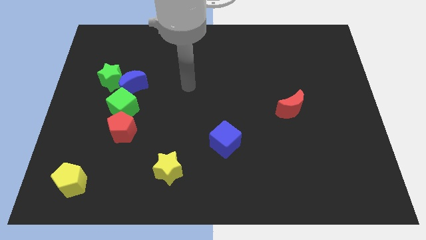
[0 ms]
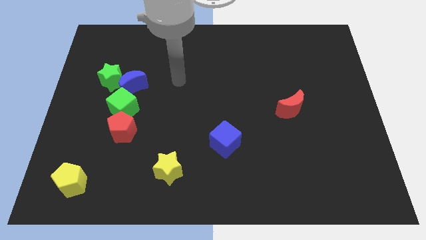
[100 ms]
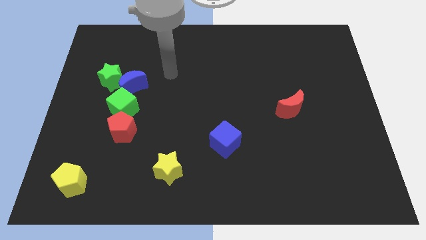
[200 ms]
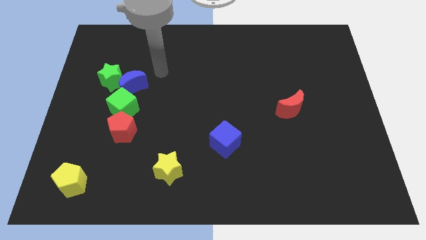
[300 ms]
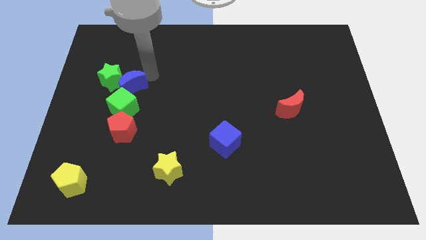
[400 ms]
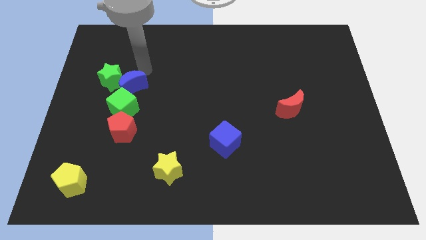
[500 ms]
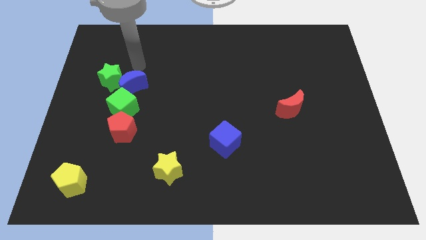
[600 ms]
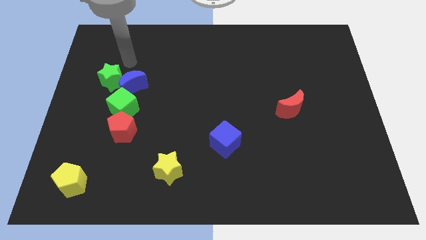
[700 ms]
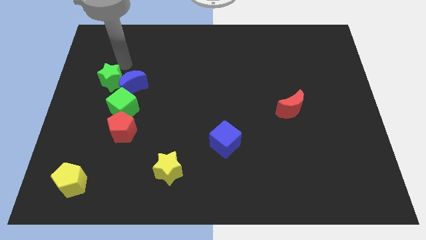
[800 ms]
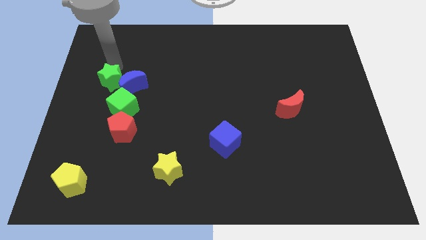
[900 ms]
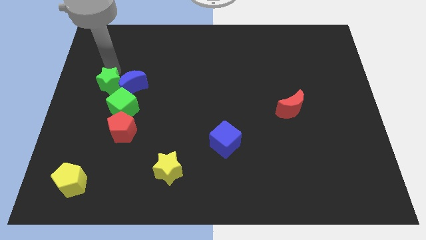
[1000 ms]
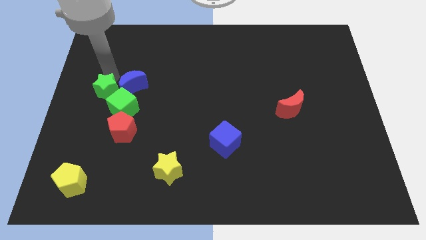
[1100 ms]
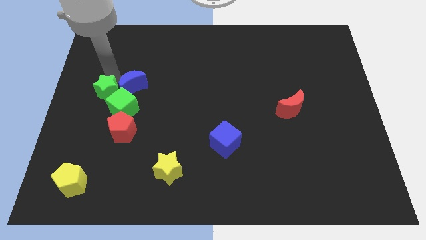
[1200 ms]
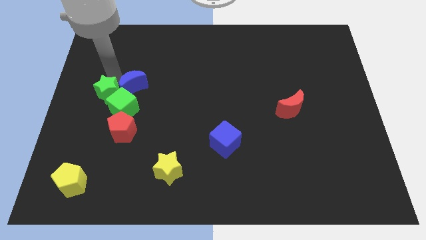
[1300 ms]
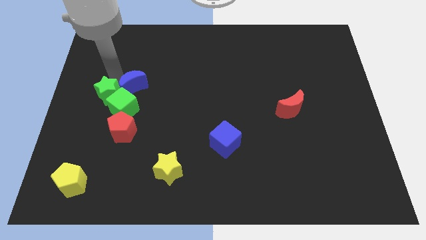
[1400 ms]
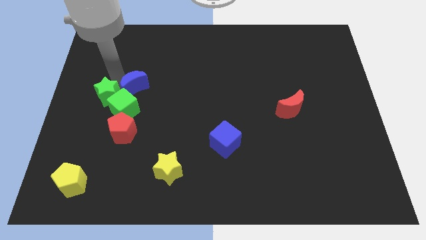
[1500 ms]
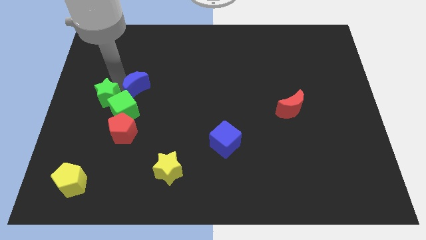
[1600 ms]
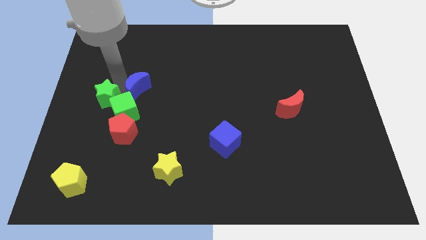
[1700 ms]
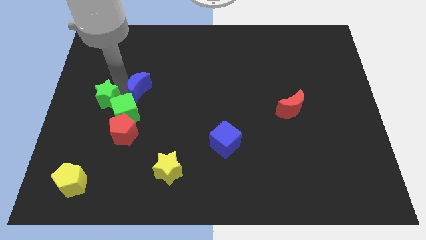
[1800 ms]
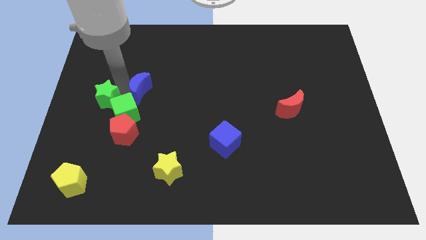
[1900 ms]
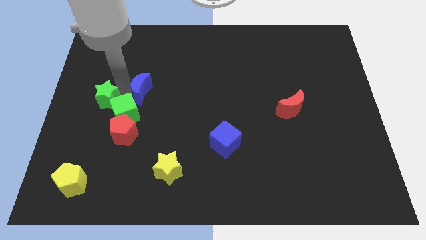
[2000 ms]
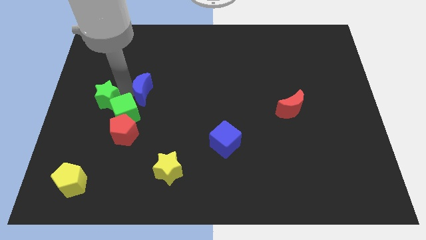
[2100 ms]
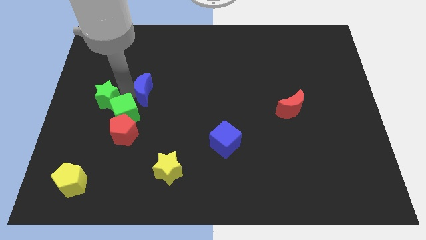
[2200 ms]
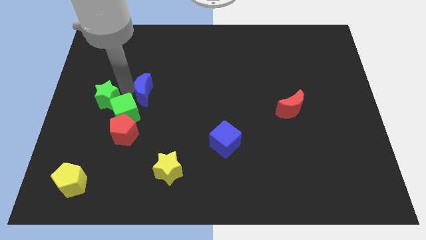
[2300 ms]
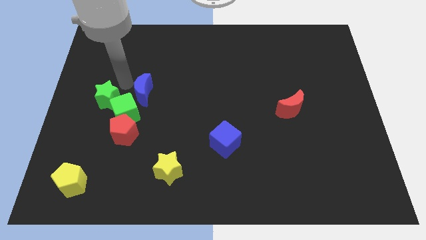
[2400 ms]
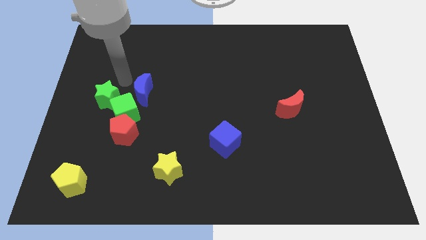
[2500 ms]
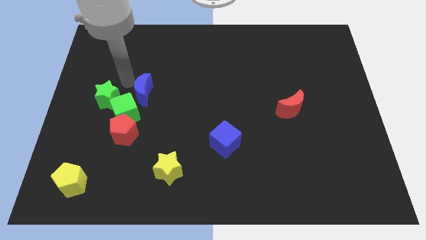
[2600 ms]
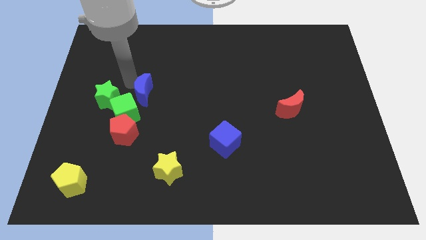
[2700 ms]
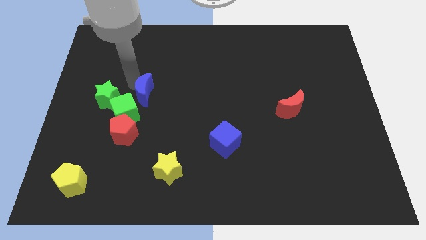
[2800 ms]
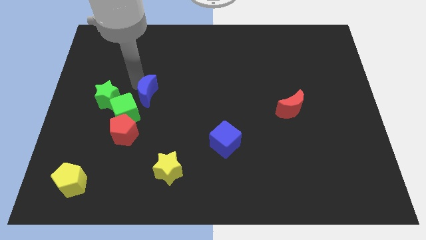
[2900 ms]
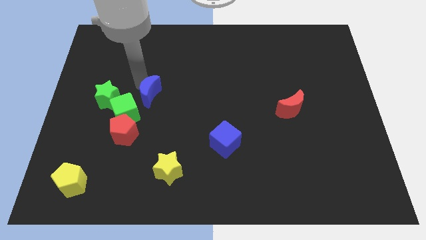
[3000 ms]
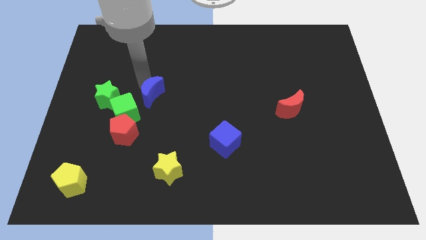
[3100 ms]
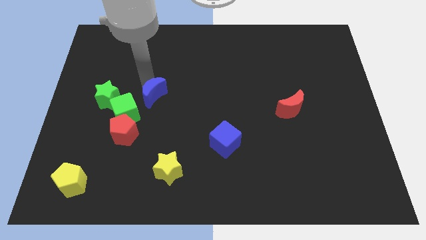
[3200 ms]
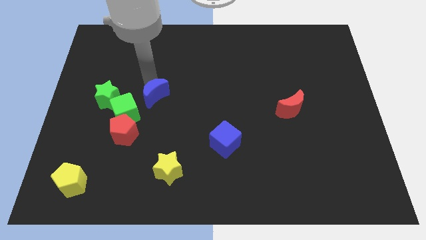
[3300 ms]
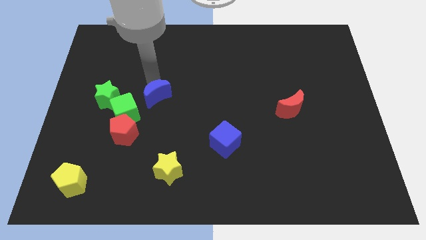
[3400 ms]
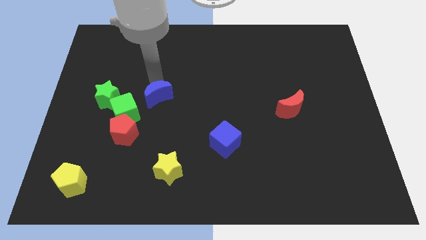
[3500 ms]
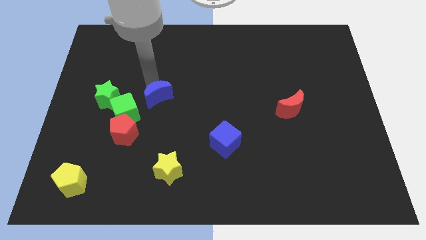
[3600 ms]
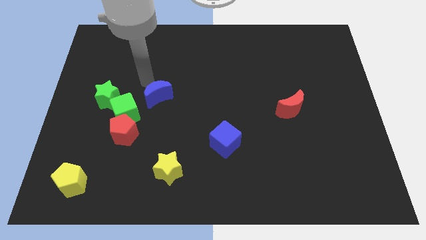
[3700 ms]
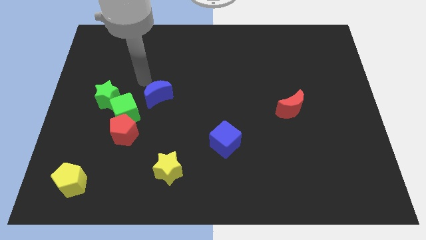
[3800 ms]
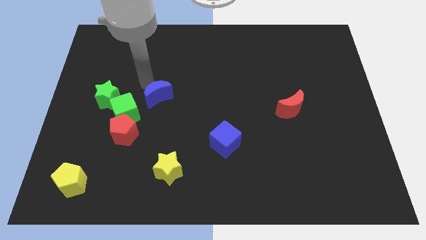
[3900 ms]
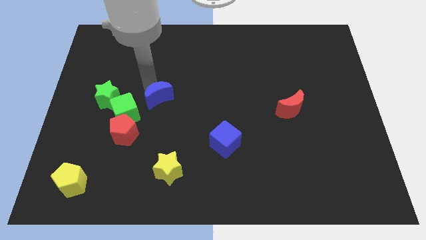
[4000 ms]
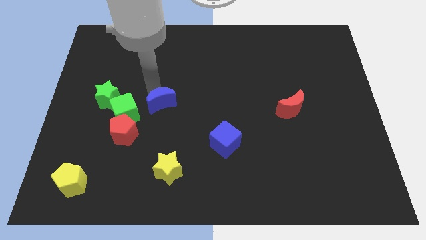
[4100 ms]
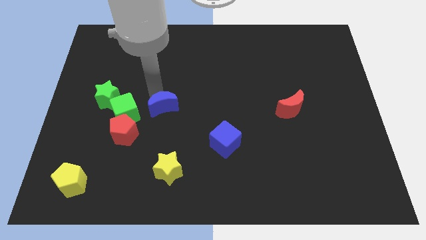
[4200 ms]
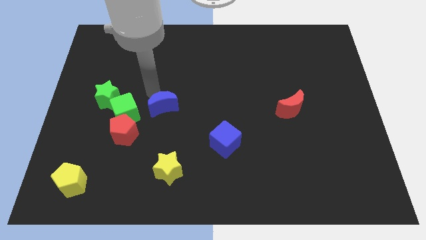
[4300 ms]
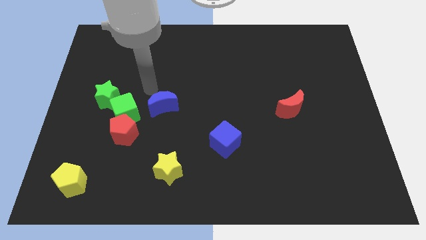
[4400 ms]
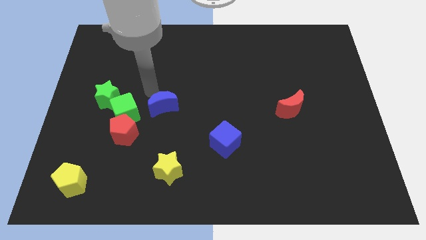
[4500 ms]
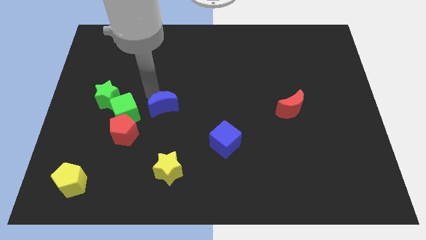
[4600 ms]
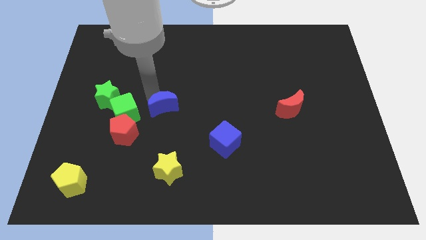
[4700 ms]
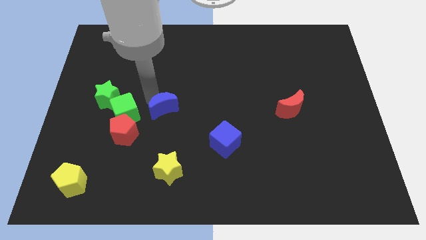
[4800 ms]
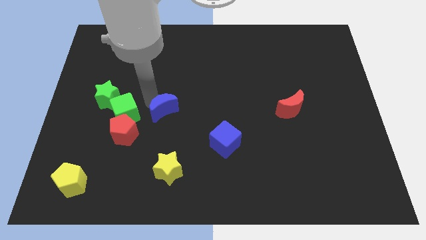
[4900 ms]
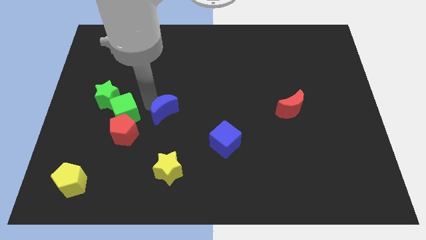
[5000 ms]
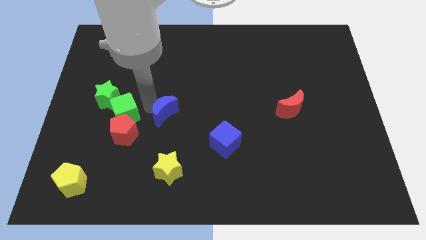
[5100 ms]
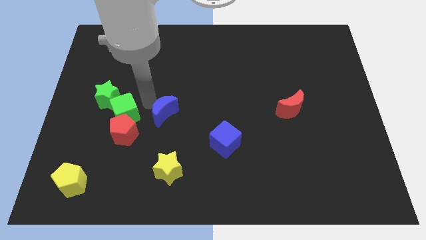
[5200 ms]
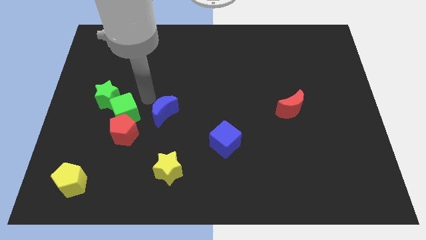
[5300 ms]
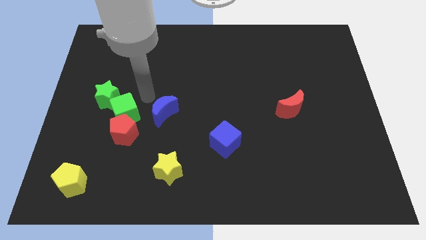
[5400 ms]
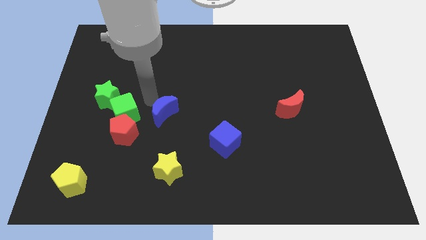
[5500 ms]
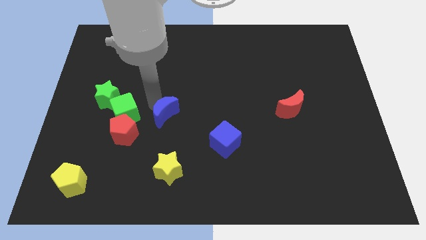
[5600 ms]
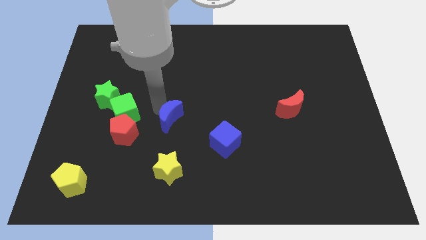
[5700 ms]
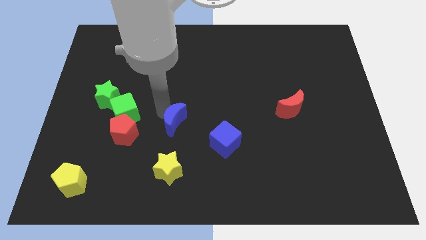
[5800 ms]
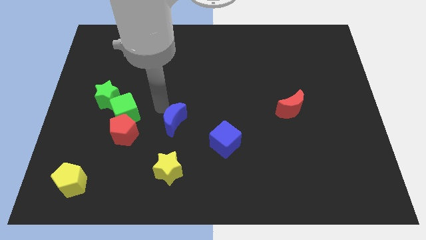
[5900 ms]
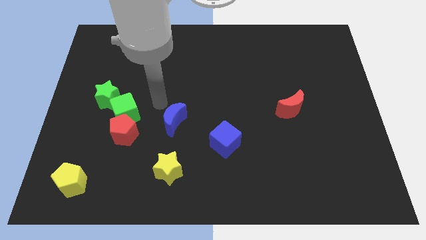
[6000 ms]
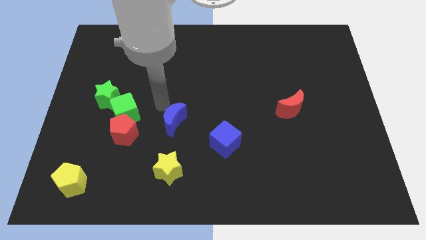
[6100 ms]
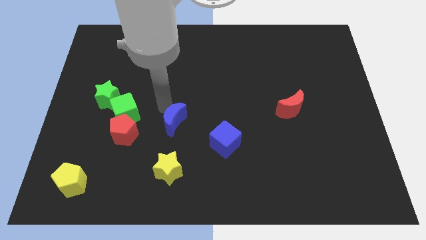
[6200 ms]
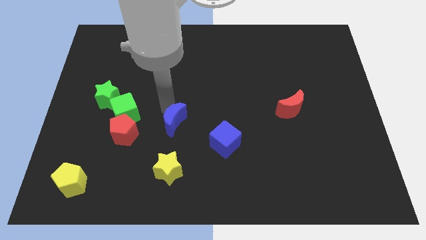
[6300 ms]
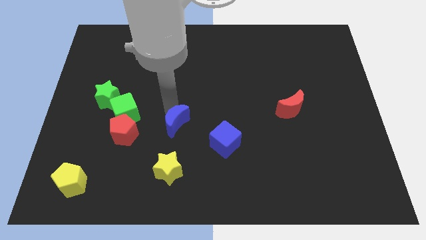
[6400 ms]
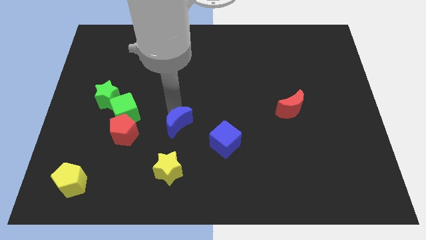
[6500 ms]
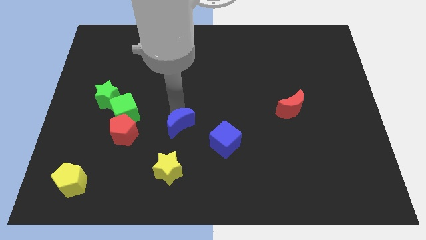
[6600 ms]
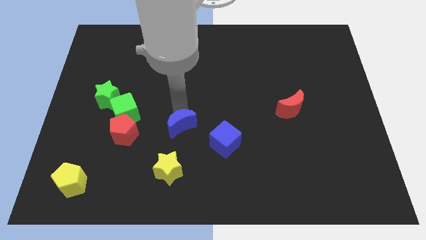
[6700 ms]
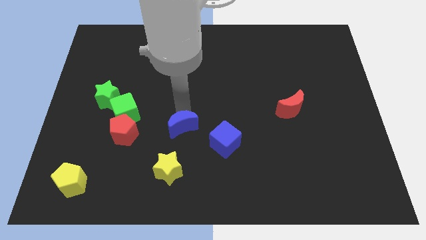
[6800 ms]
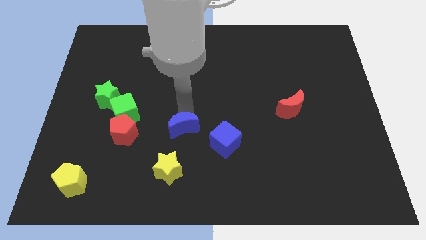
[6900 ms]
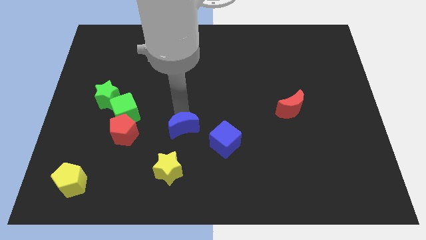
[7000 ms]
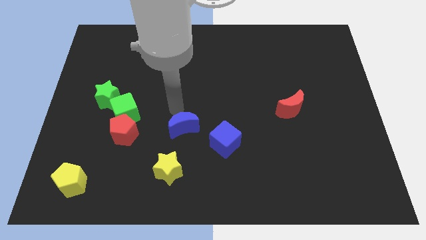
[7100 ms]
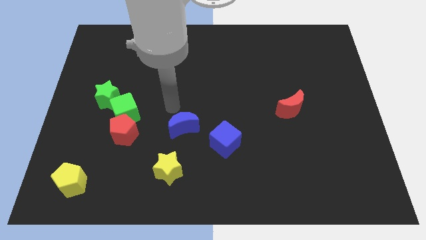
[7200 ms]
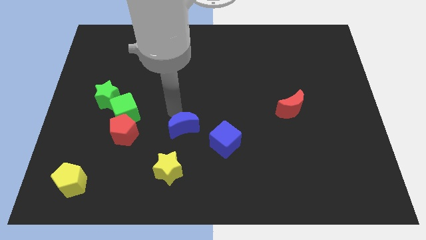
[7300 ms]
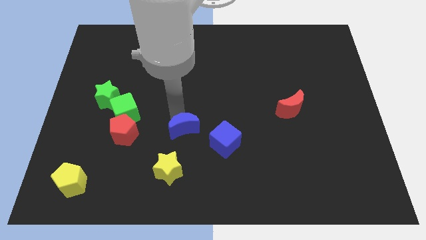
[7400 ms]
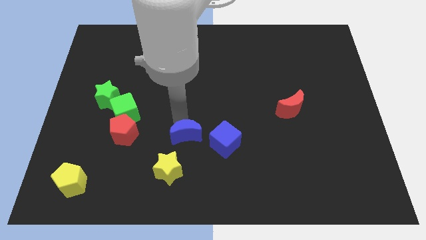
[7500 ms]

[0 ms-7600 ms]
push the blue moon downwards and right

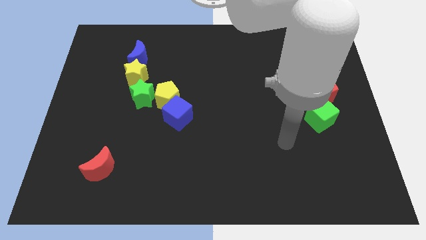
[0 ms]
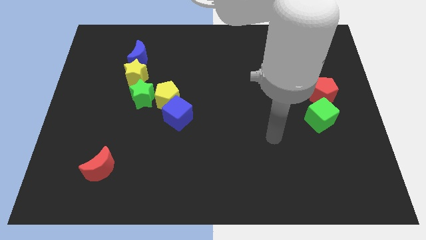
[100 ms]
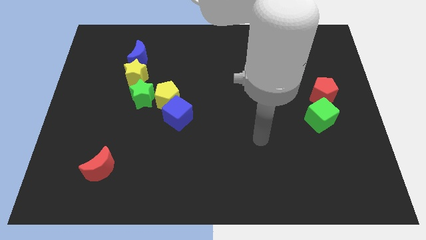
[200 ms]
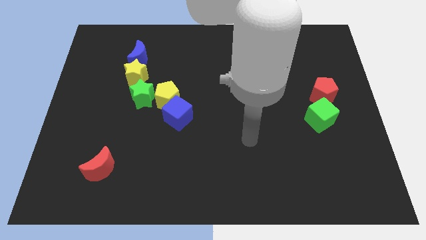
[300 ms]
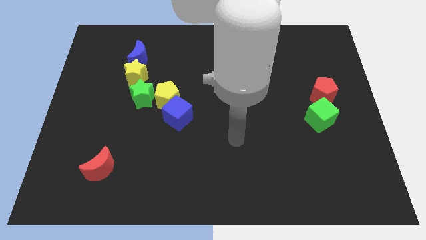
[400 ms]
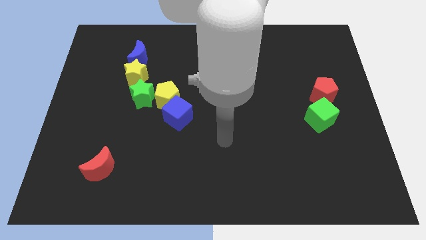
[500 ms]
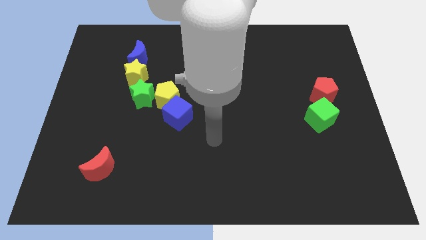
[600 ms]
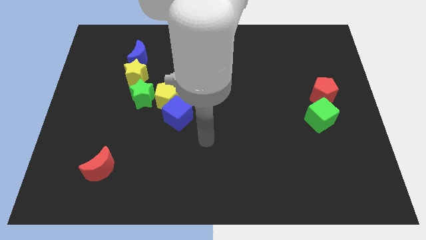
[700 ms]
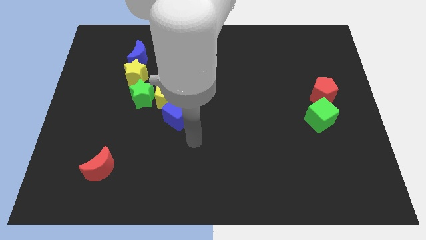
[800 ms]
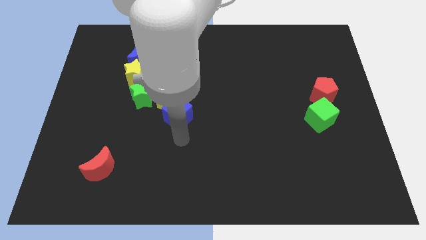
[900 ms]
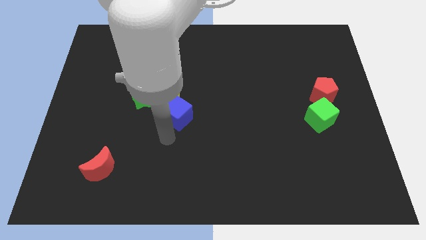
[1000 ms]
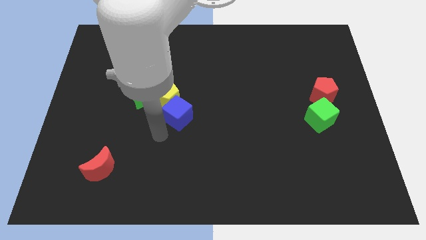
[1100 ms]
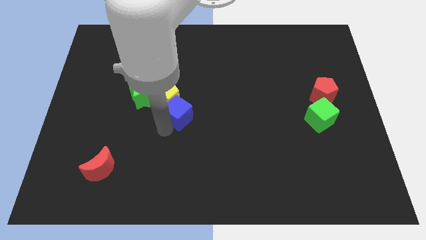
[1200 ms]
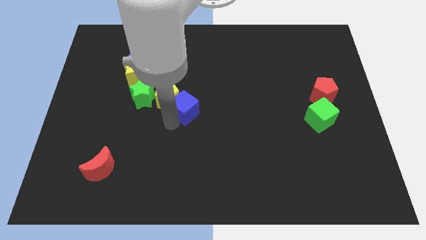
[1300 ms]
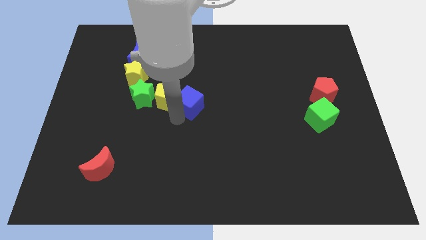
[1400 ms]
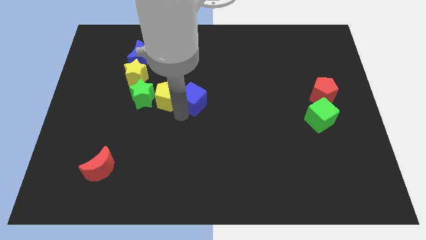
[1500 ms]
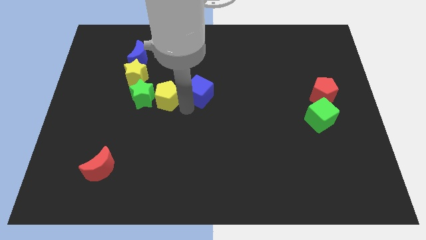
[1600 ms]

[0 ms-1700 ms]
slide the blue cube a bit upwards and right
